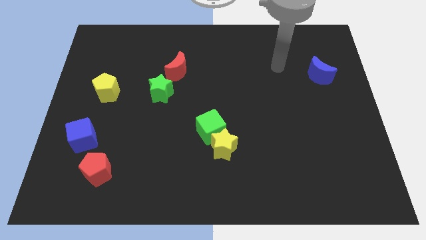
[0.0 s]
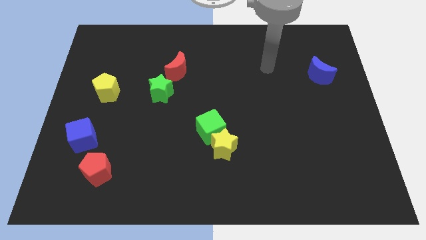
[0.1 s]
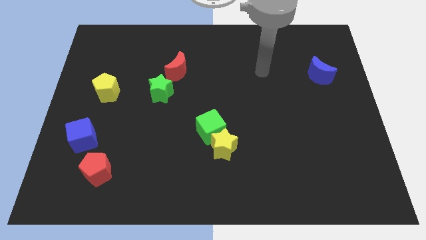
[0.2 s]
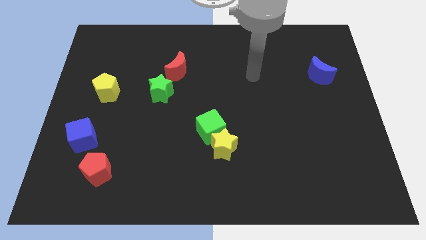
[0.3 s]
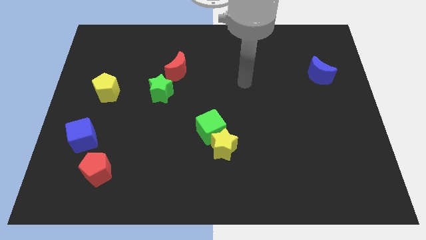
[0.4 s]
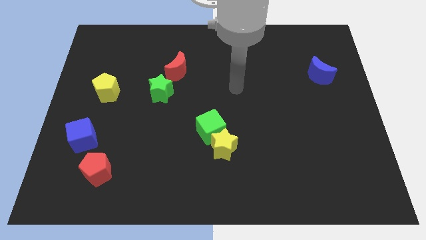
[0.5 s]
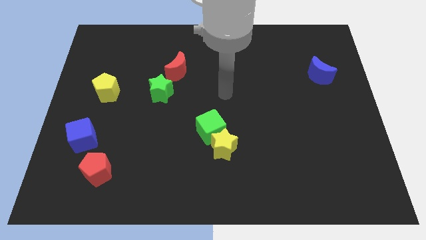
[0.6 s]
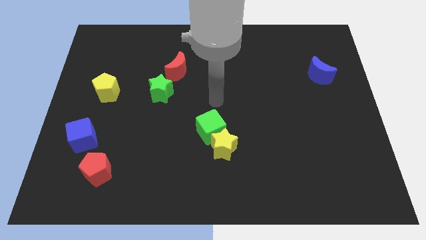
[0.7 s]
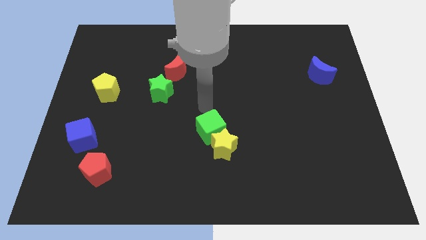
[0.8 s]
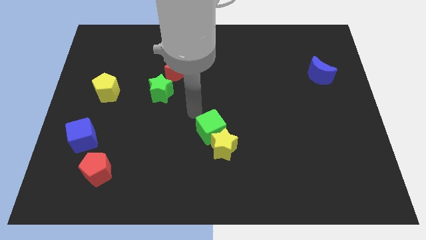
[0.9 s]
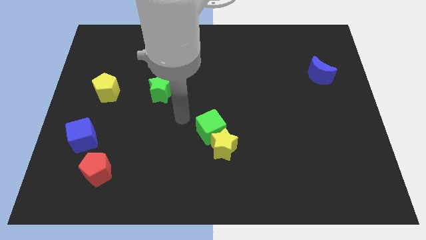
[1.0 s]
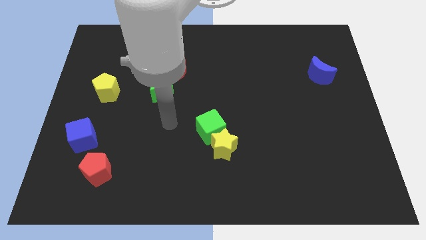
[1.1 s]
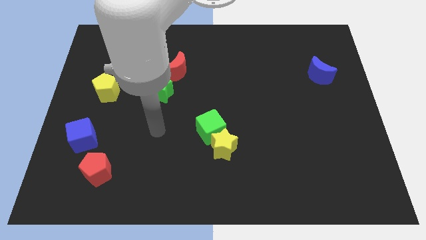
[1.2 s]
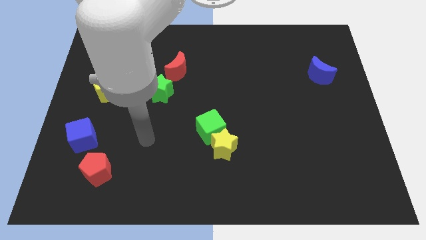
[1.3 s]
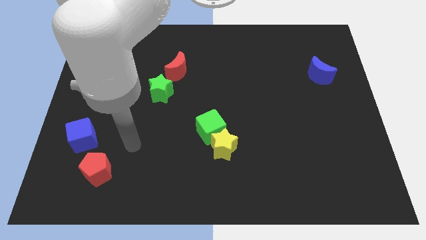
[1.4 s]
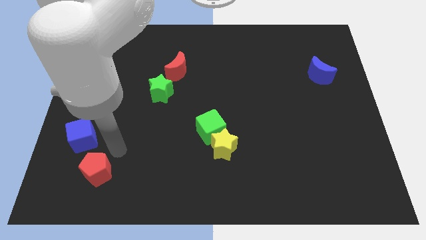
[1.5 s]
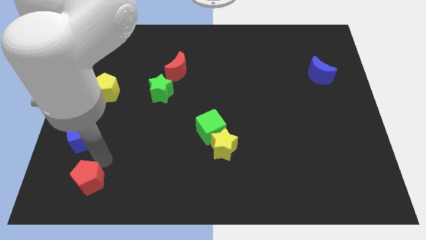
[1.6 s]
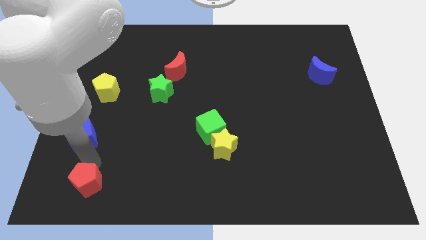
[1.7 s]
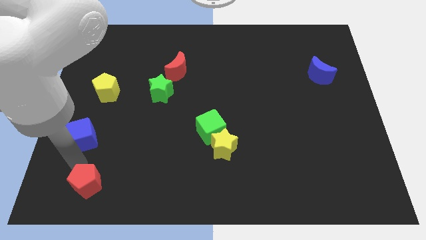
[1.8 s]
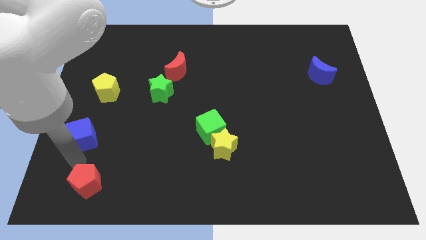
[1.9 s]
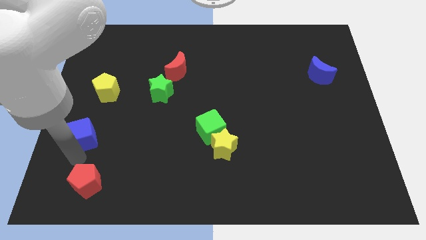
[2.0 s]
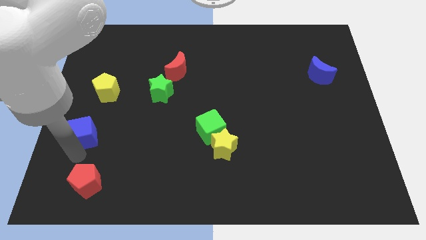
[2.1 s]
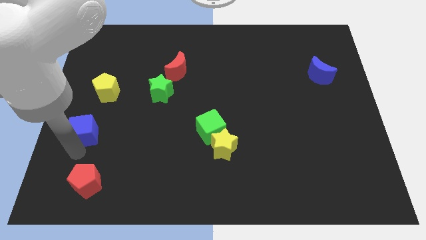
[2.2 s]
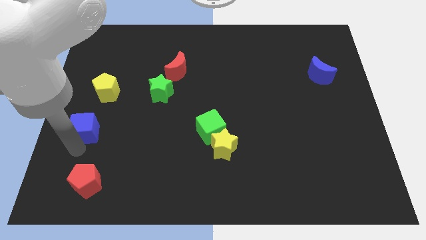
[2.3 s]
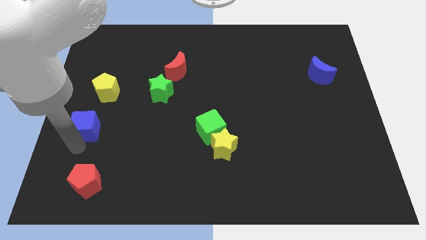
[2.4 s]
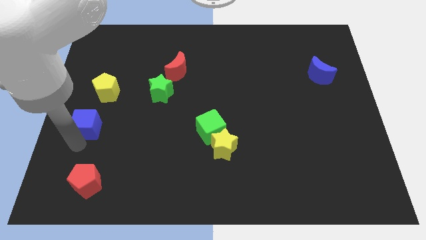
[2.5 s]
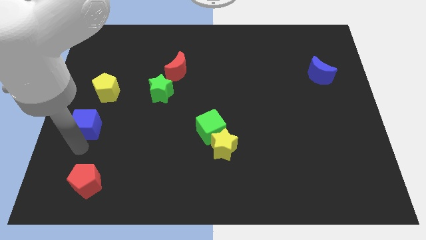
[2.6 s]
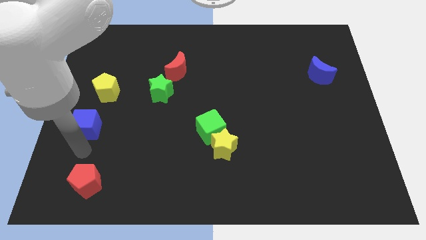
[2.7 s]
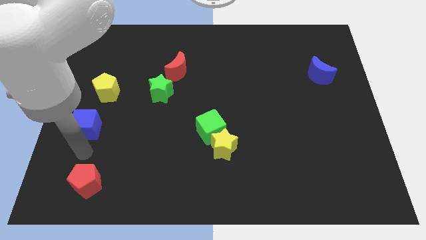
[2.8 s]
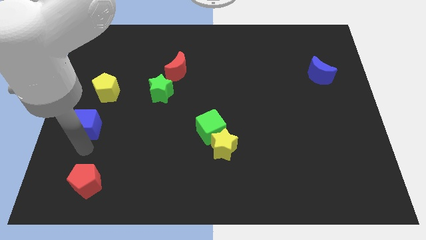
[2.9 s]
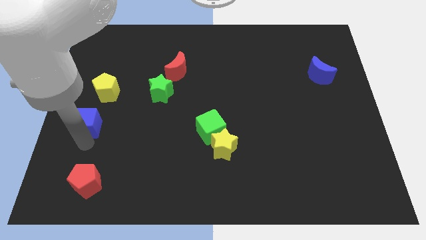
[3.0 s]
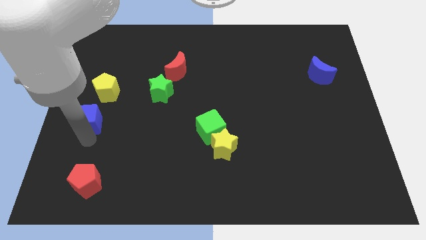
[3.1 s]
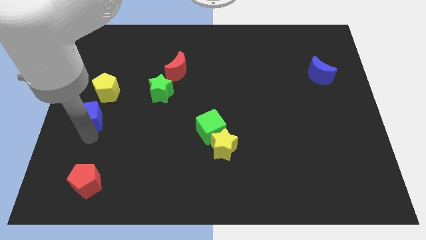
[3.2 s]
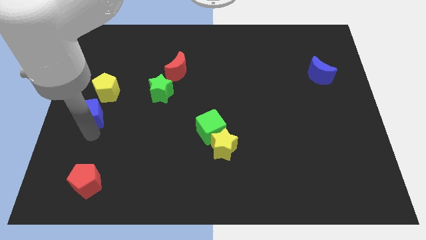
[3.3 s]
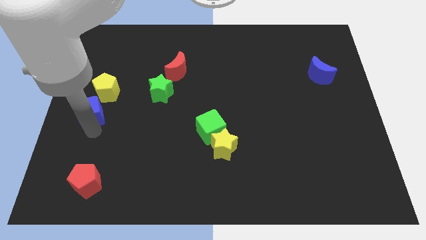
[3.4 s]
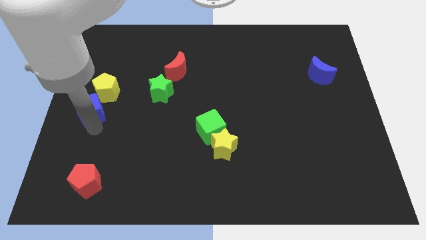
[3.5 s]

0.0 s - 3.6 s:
slightly push the blue cube up

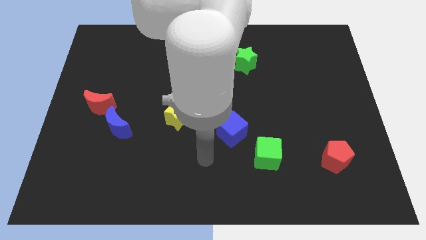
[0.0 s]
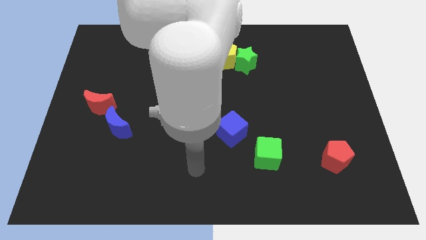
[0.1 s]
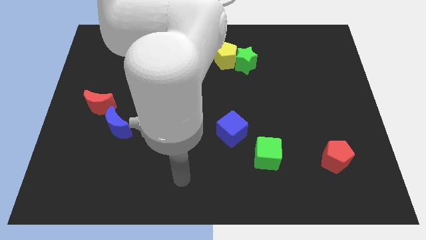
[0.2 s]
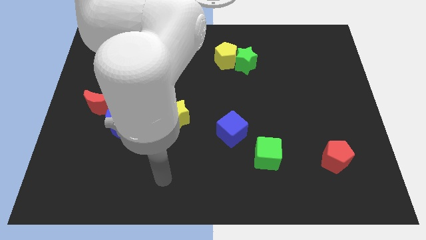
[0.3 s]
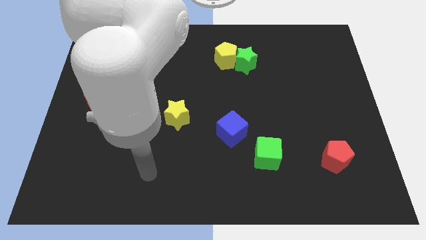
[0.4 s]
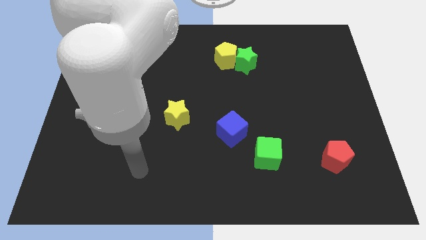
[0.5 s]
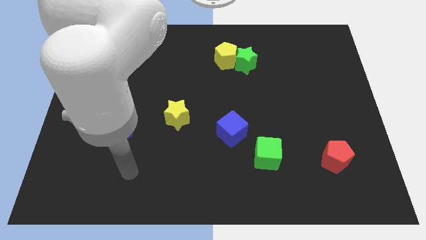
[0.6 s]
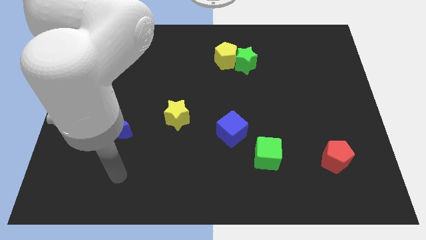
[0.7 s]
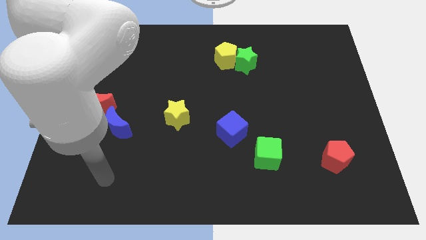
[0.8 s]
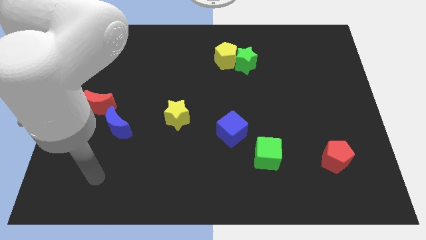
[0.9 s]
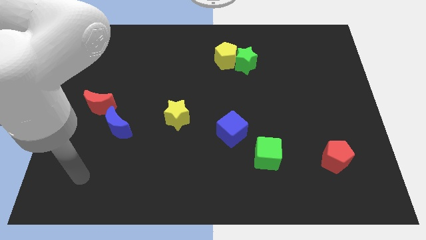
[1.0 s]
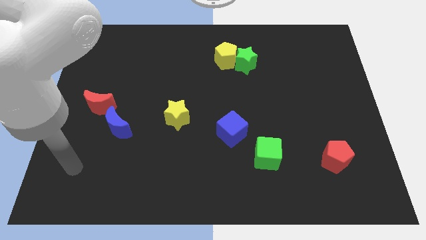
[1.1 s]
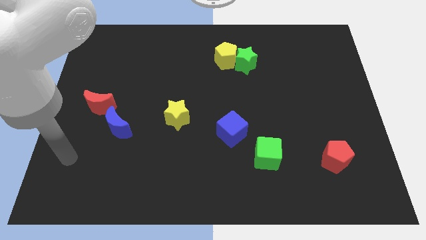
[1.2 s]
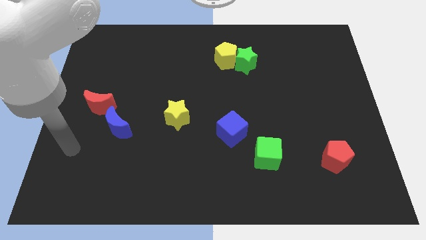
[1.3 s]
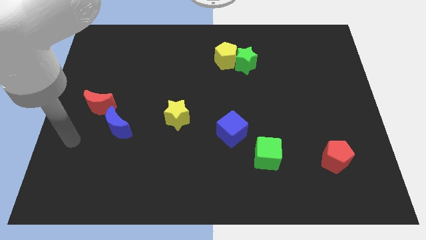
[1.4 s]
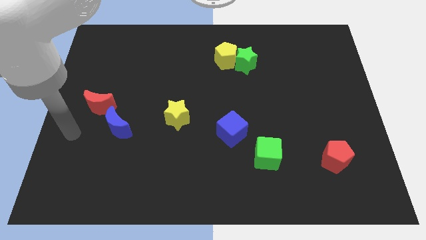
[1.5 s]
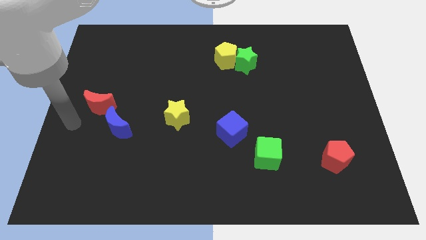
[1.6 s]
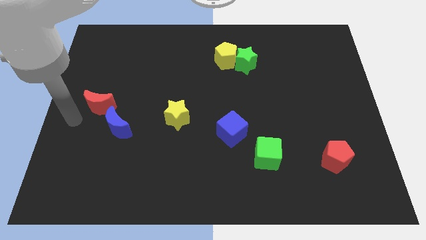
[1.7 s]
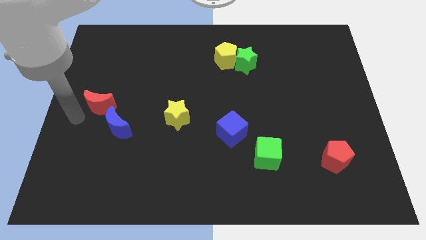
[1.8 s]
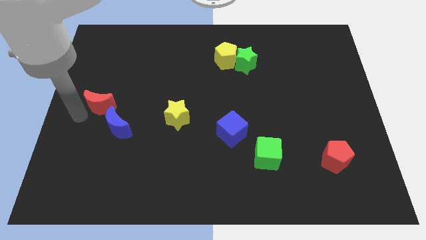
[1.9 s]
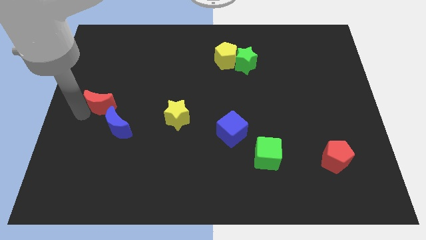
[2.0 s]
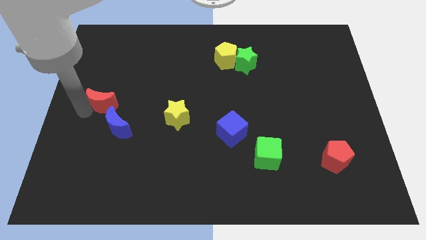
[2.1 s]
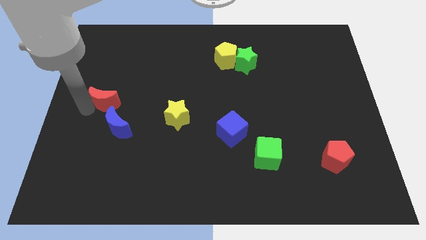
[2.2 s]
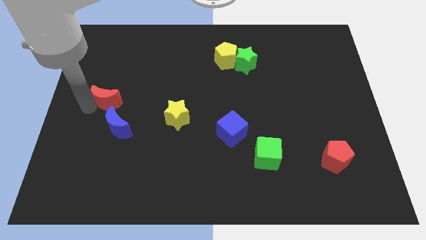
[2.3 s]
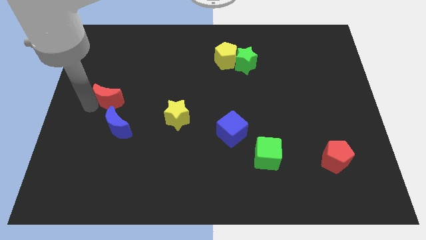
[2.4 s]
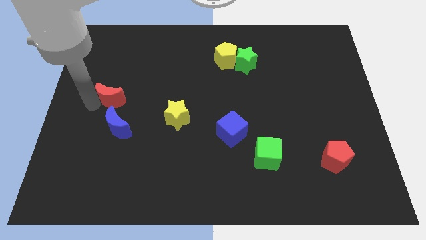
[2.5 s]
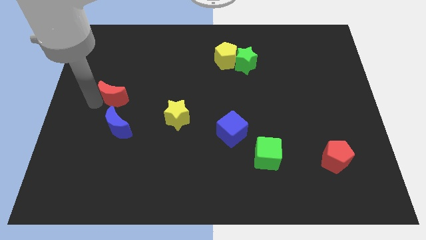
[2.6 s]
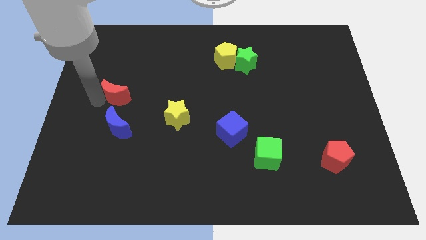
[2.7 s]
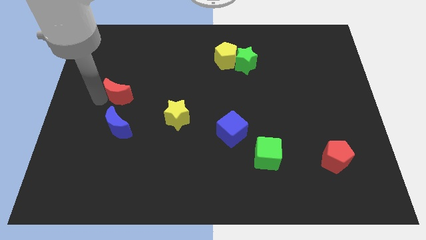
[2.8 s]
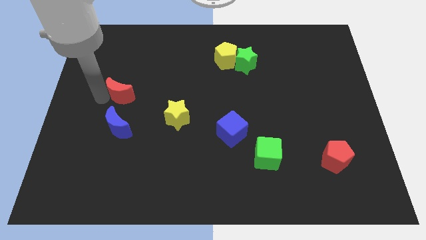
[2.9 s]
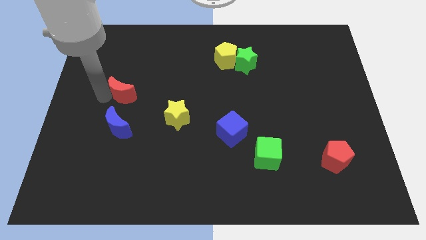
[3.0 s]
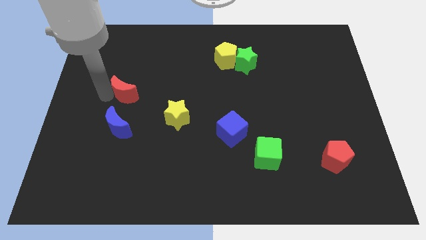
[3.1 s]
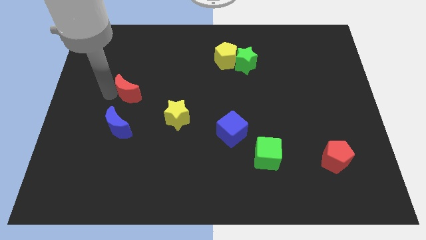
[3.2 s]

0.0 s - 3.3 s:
push the red moon a bit diagonally upwards and to the right

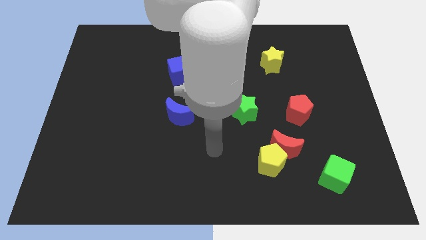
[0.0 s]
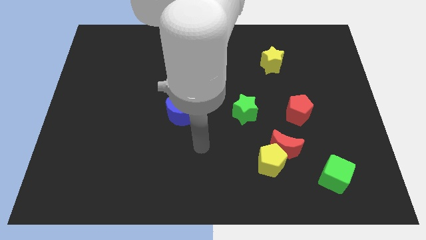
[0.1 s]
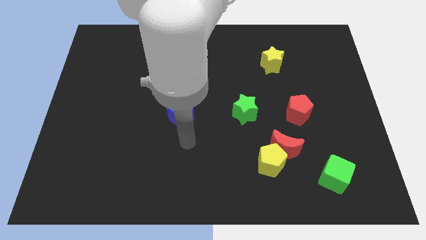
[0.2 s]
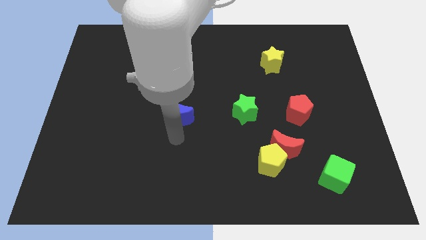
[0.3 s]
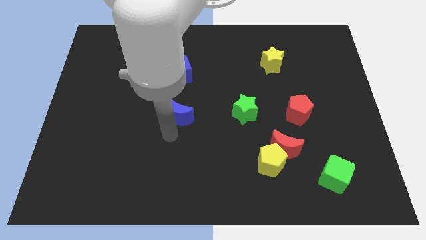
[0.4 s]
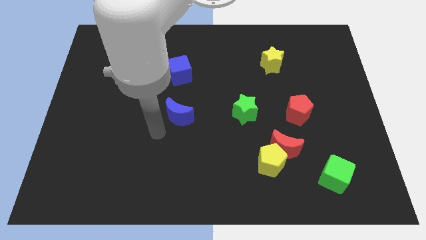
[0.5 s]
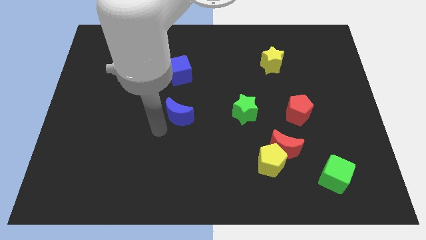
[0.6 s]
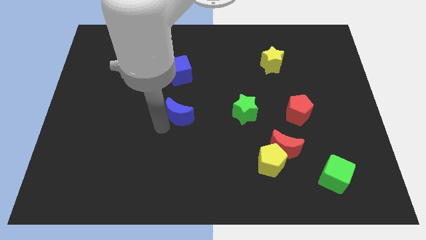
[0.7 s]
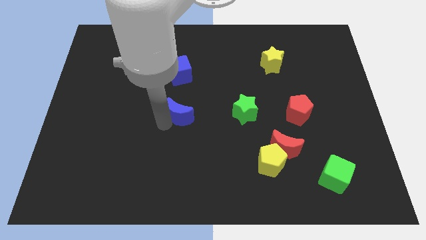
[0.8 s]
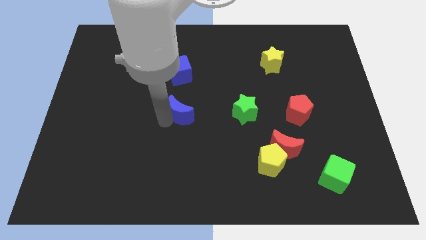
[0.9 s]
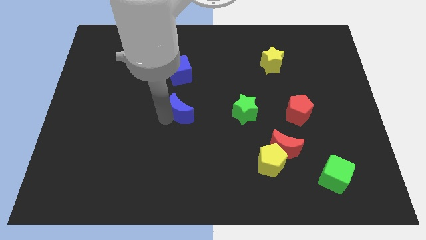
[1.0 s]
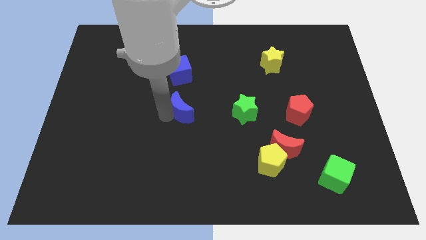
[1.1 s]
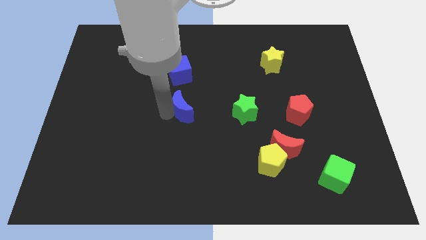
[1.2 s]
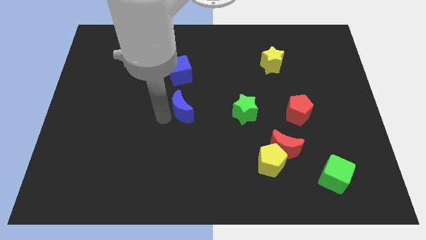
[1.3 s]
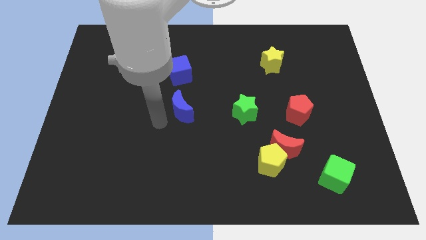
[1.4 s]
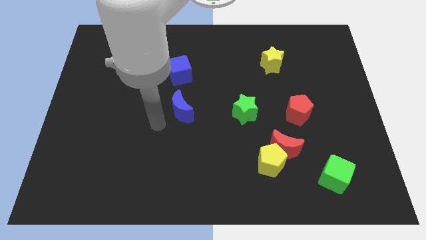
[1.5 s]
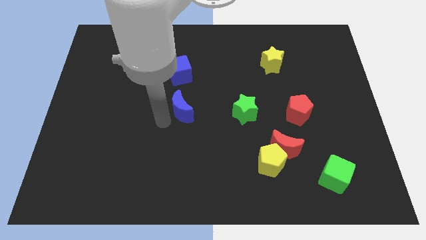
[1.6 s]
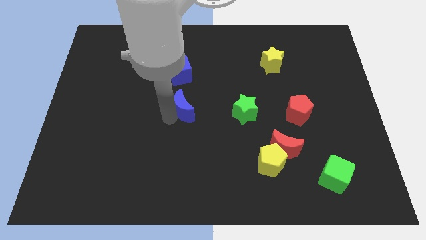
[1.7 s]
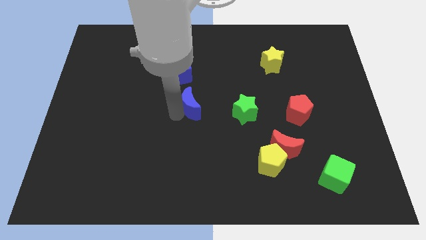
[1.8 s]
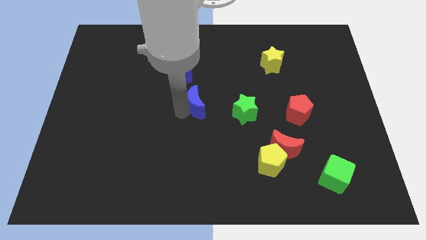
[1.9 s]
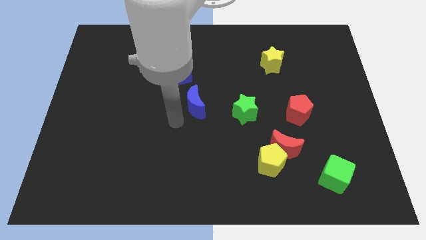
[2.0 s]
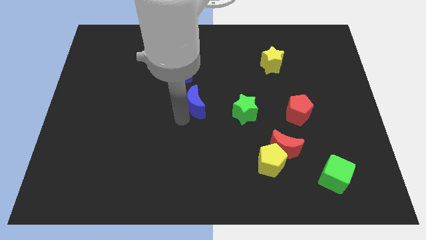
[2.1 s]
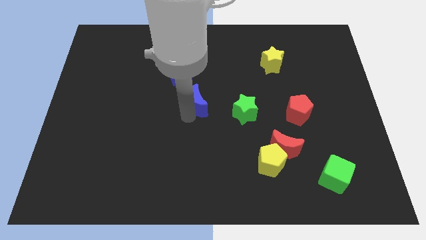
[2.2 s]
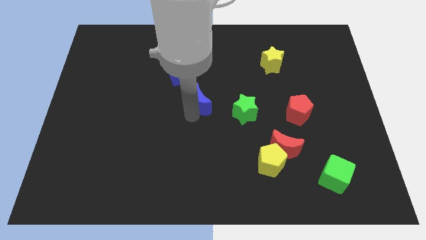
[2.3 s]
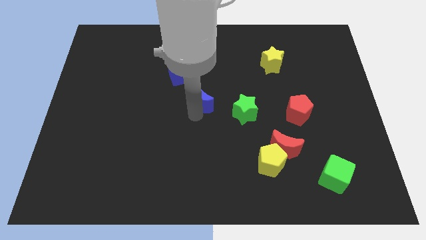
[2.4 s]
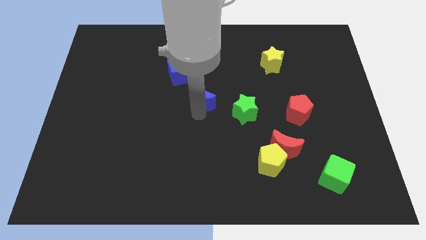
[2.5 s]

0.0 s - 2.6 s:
slightly slide the blue moon upwards and then right
